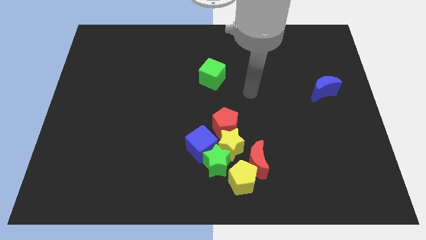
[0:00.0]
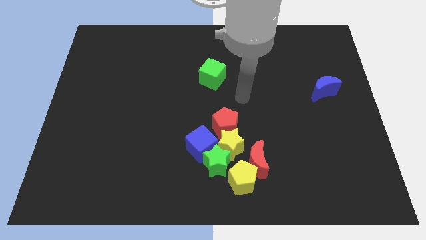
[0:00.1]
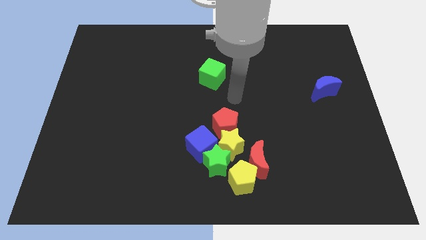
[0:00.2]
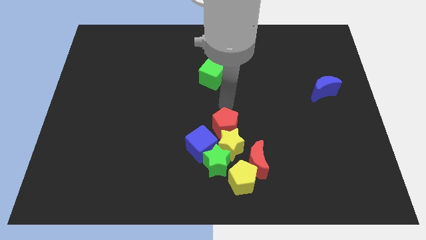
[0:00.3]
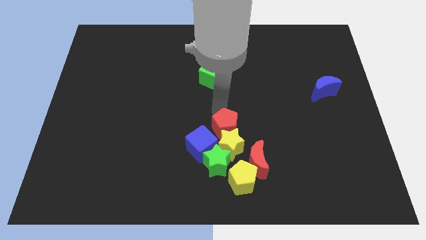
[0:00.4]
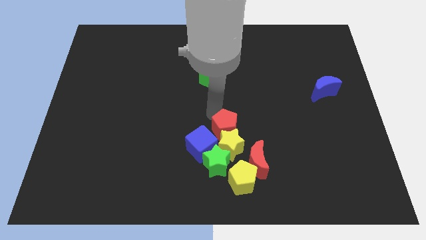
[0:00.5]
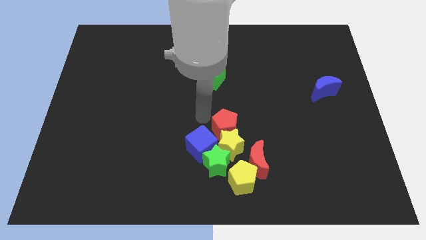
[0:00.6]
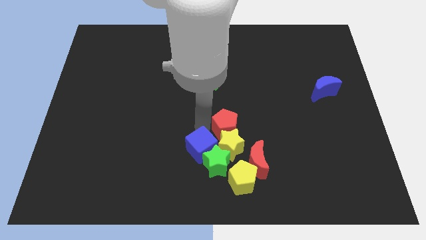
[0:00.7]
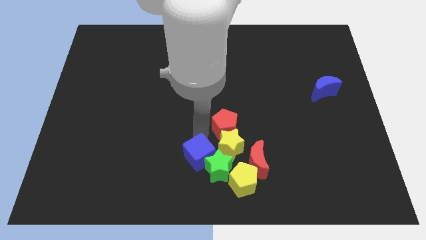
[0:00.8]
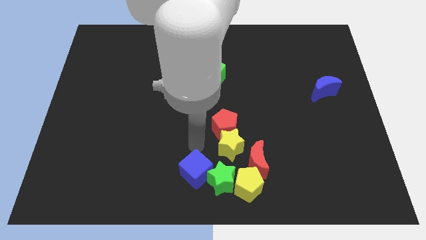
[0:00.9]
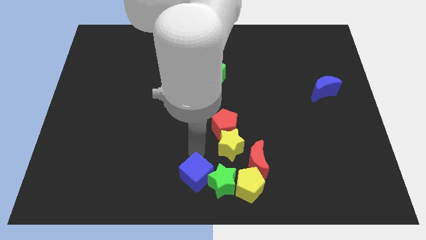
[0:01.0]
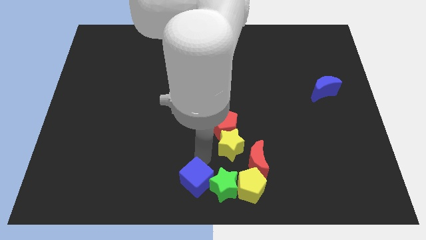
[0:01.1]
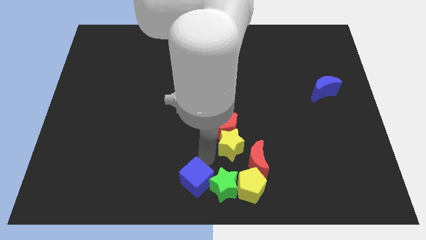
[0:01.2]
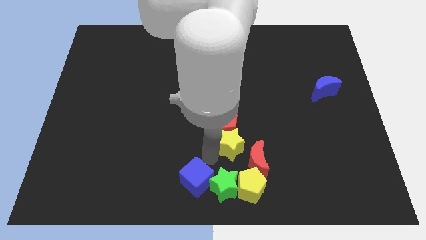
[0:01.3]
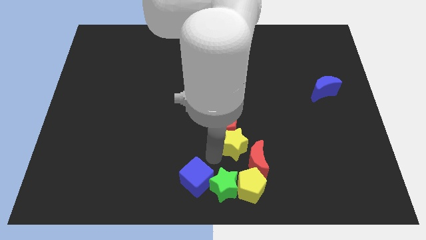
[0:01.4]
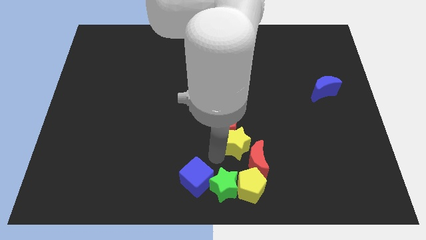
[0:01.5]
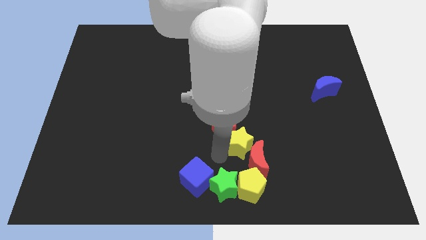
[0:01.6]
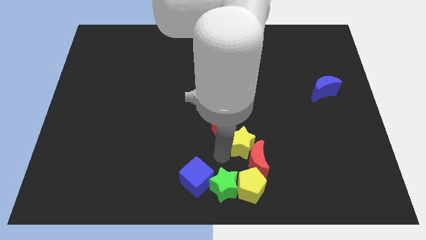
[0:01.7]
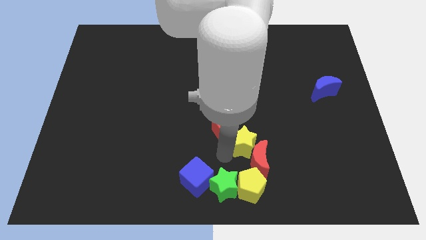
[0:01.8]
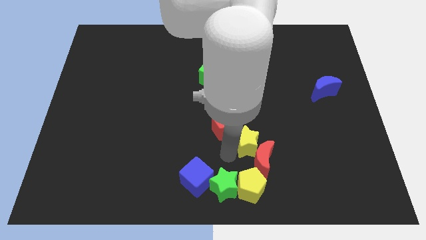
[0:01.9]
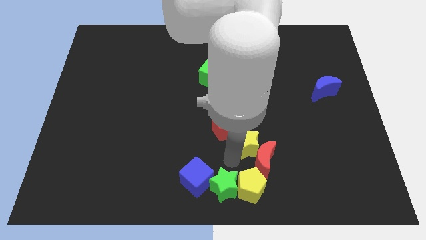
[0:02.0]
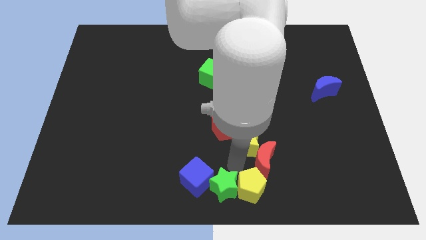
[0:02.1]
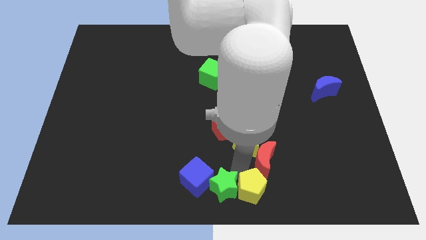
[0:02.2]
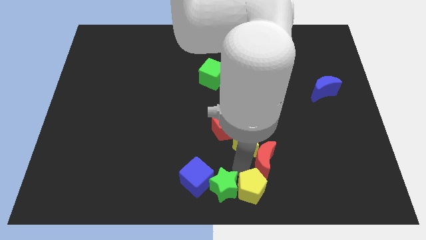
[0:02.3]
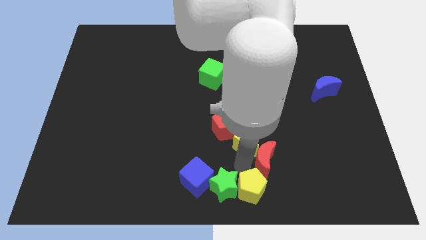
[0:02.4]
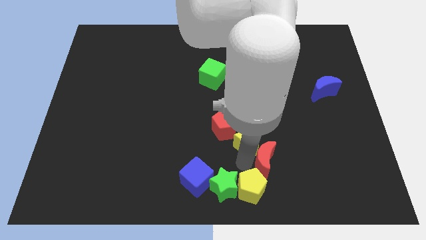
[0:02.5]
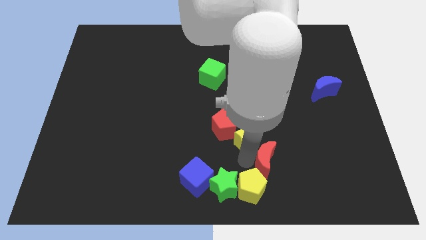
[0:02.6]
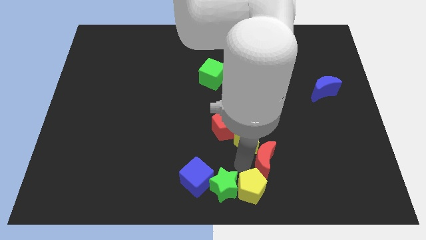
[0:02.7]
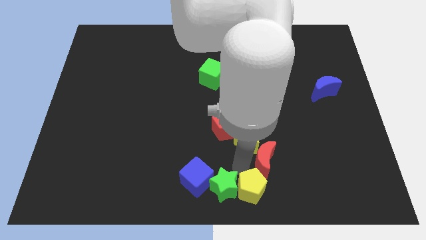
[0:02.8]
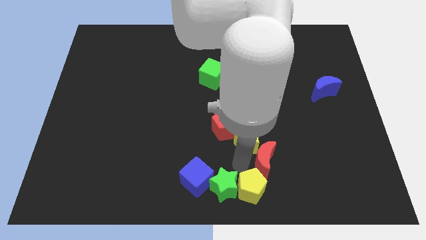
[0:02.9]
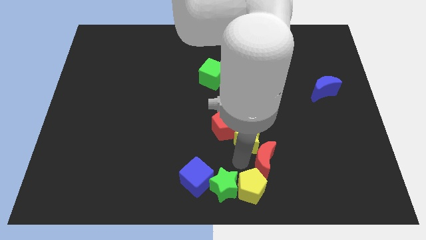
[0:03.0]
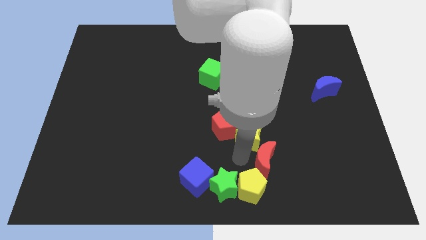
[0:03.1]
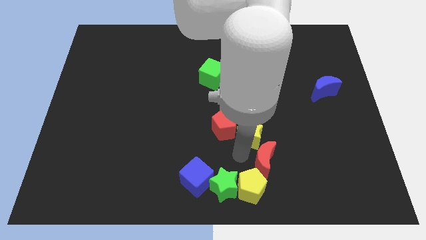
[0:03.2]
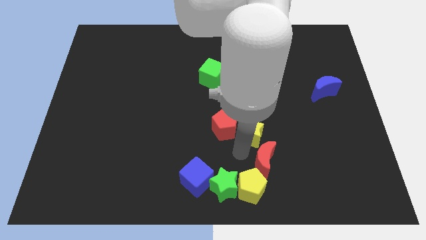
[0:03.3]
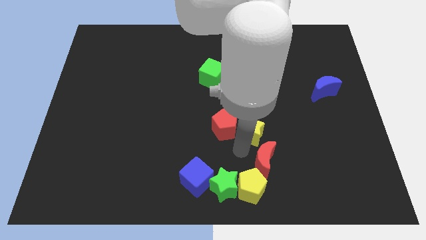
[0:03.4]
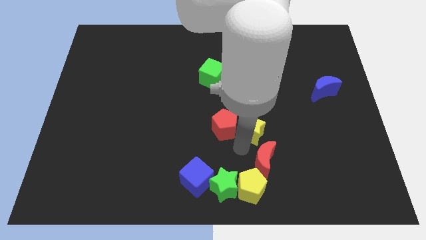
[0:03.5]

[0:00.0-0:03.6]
pull the yellow star apart from the group

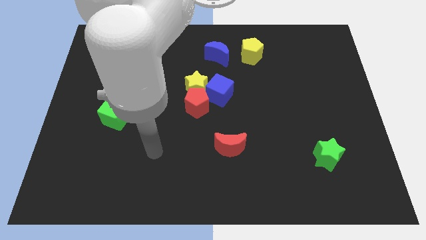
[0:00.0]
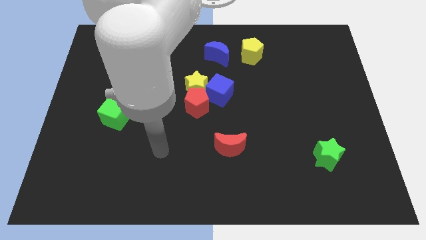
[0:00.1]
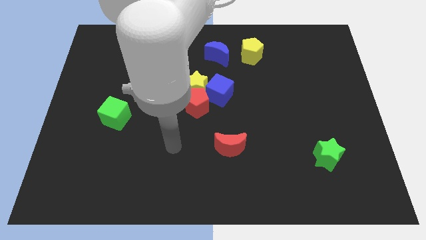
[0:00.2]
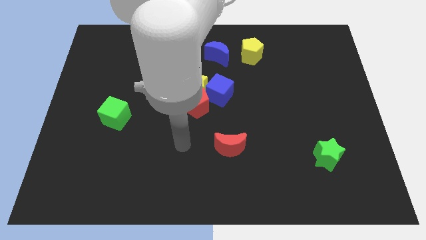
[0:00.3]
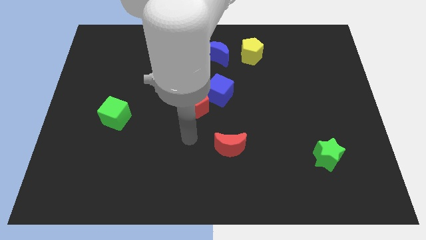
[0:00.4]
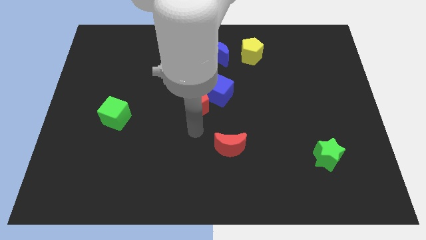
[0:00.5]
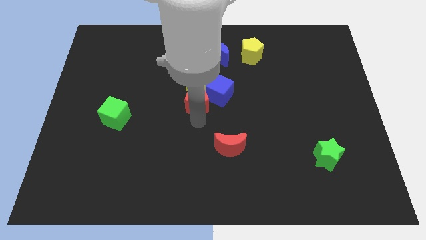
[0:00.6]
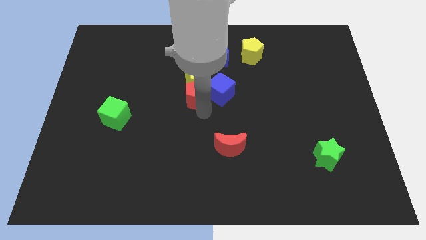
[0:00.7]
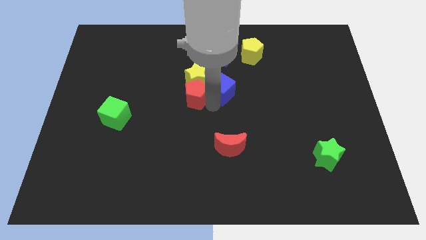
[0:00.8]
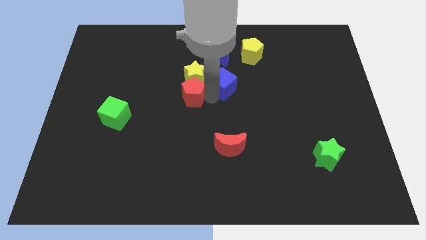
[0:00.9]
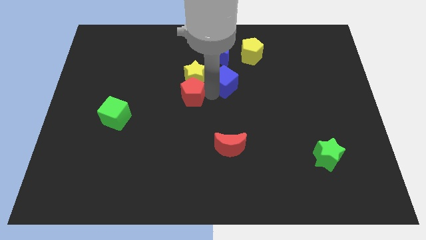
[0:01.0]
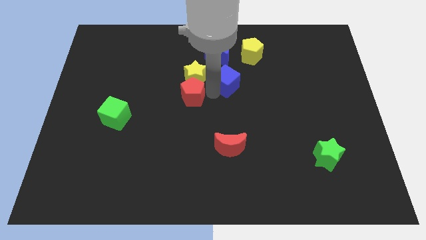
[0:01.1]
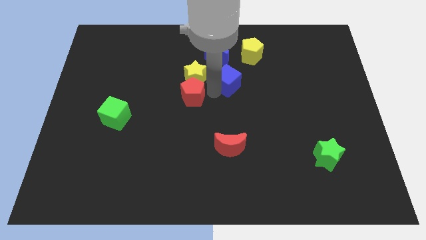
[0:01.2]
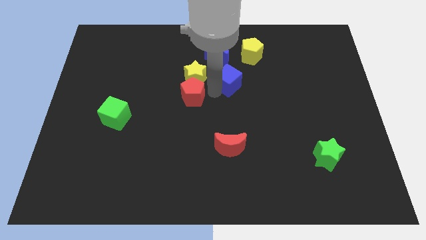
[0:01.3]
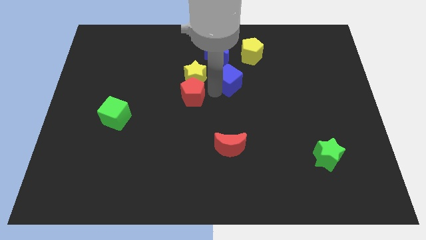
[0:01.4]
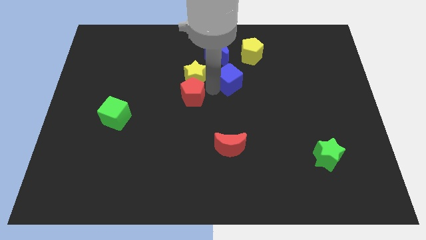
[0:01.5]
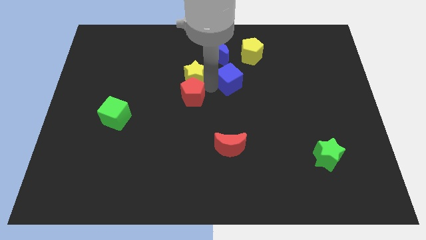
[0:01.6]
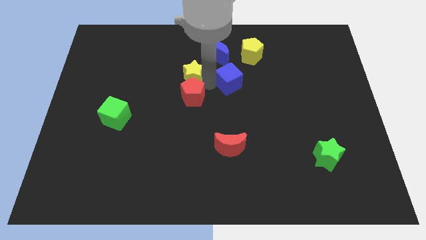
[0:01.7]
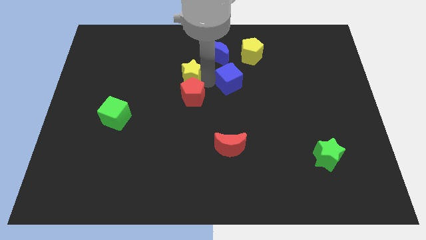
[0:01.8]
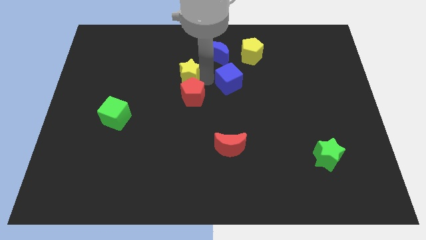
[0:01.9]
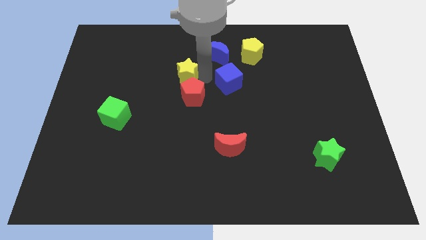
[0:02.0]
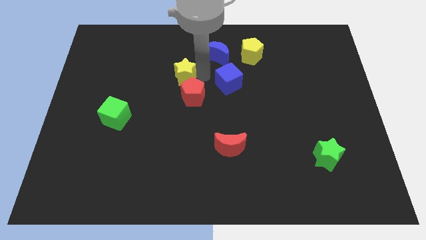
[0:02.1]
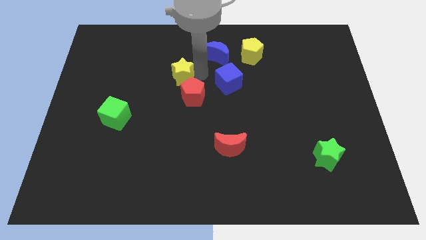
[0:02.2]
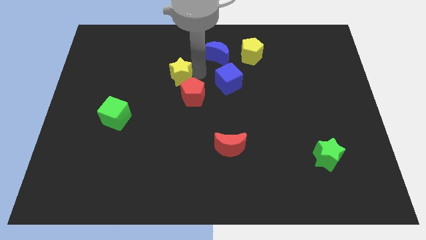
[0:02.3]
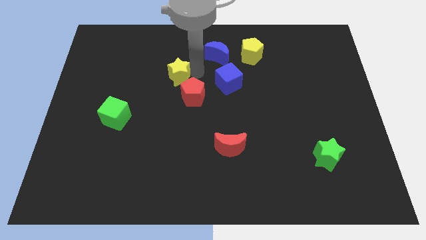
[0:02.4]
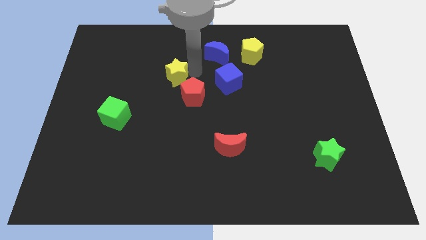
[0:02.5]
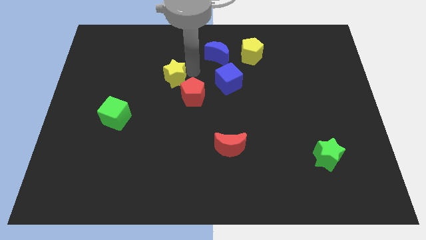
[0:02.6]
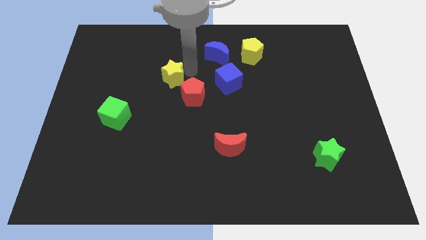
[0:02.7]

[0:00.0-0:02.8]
pull the yellow star apart from the red pentagon and blue cube

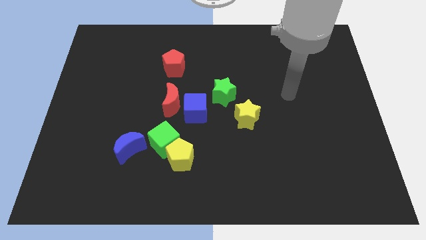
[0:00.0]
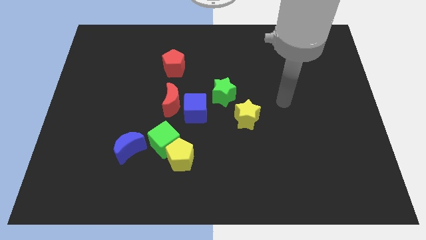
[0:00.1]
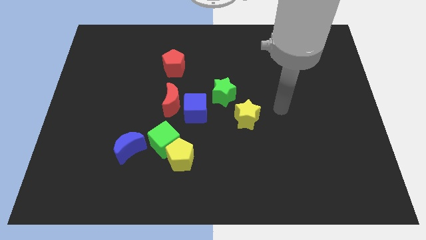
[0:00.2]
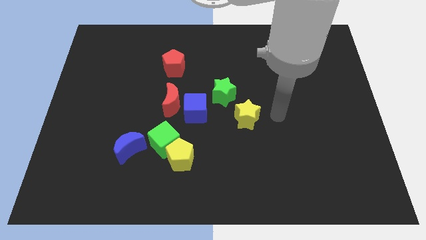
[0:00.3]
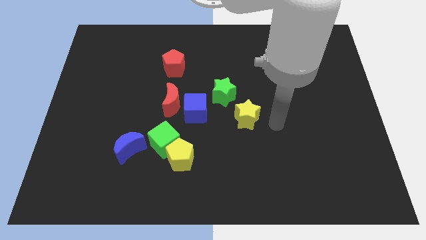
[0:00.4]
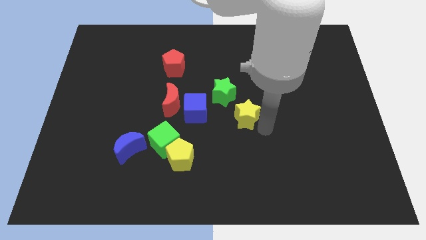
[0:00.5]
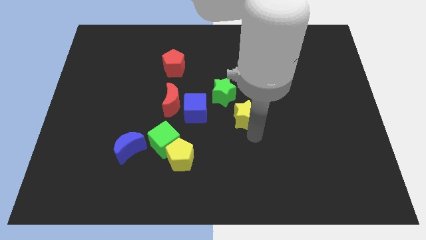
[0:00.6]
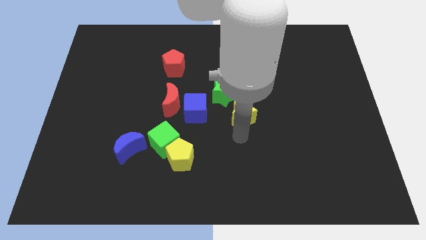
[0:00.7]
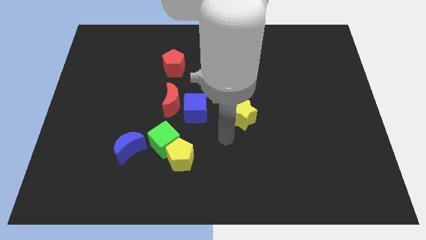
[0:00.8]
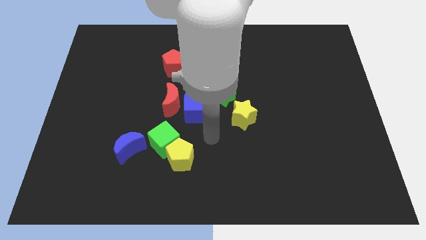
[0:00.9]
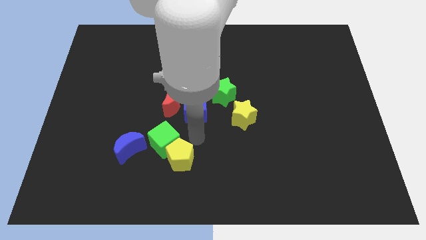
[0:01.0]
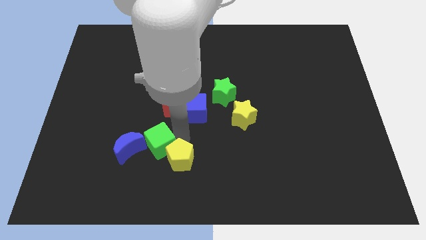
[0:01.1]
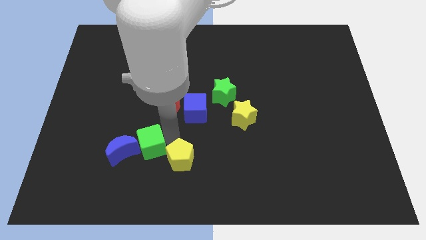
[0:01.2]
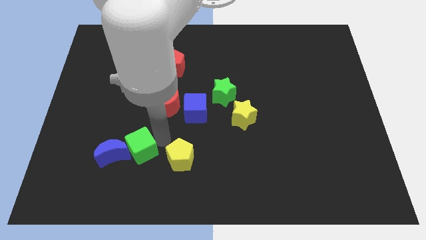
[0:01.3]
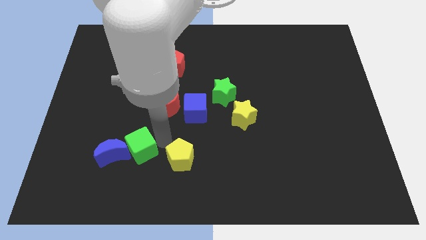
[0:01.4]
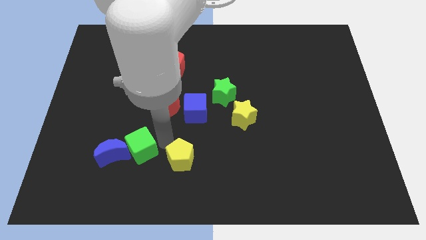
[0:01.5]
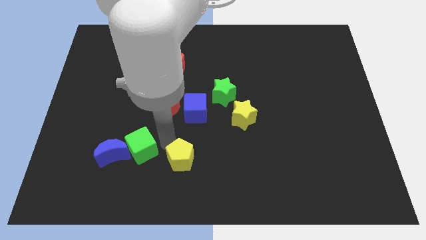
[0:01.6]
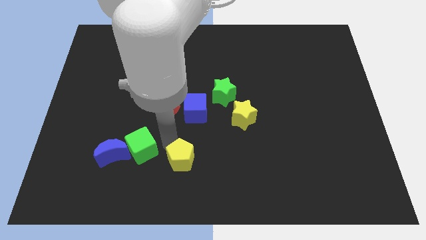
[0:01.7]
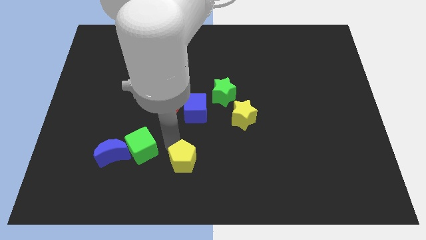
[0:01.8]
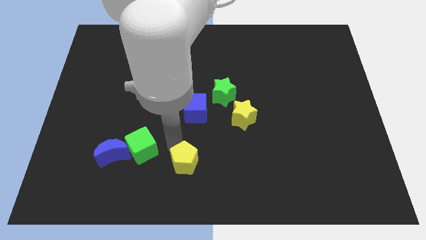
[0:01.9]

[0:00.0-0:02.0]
pull the yellow pentagon apart from the green cube

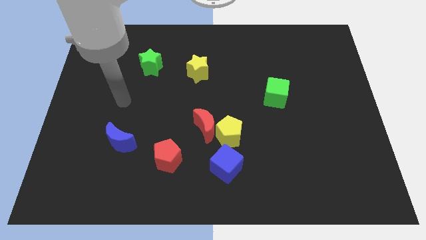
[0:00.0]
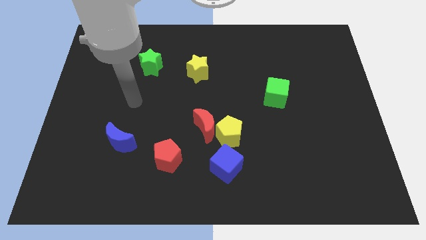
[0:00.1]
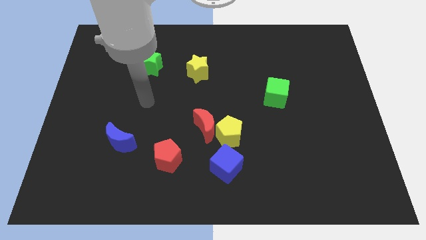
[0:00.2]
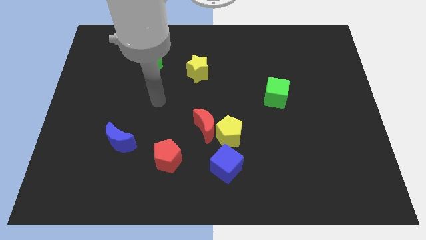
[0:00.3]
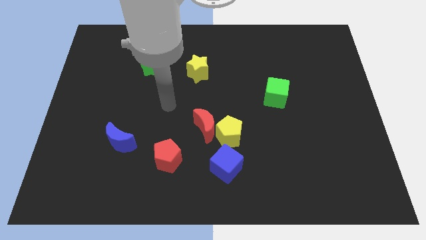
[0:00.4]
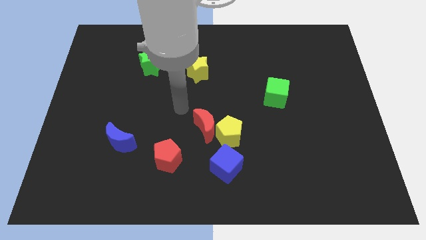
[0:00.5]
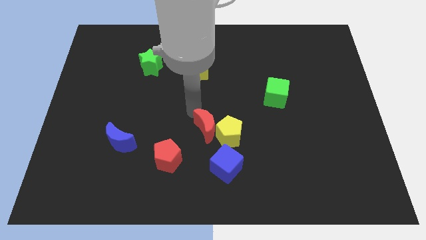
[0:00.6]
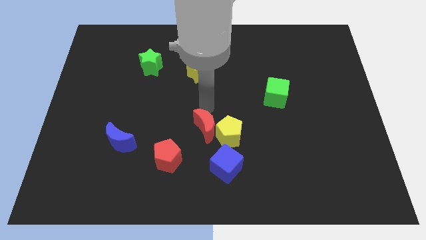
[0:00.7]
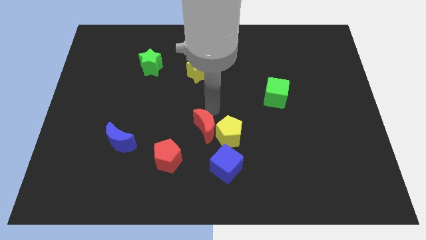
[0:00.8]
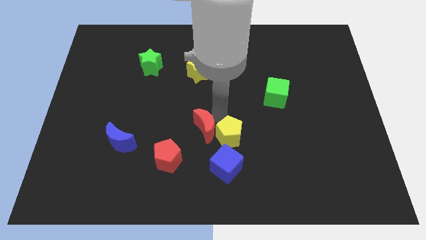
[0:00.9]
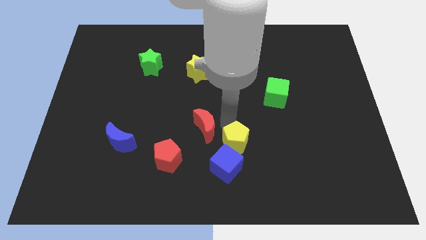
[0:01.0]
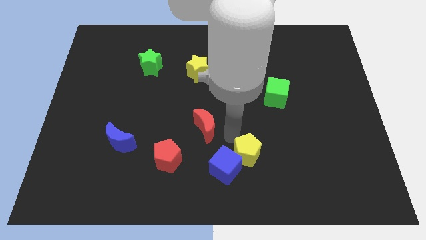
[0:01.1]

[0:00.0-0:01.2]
move the red moon away from the yellow pentagon
